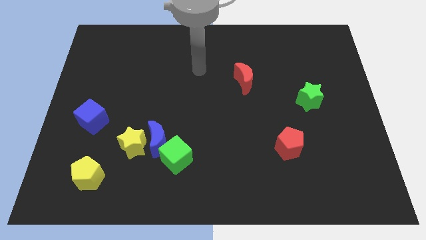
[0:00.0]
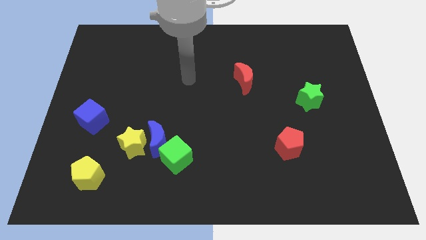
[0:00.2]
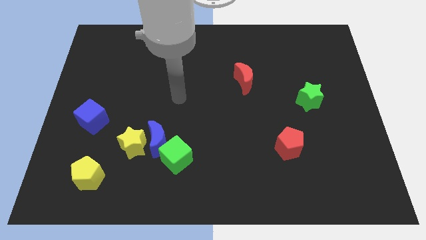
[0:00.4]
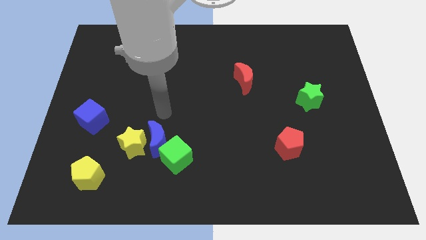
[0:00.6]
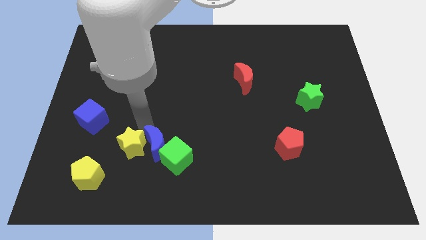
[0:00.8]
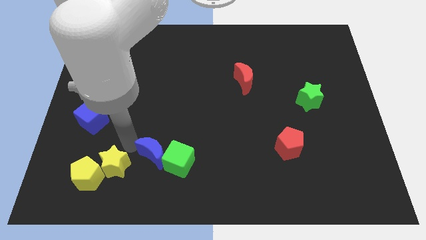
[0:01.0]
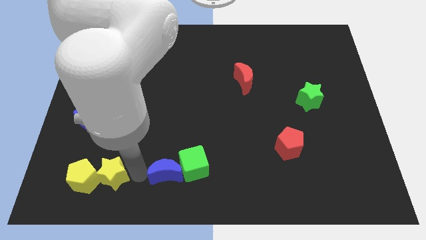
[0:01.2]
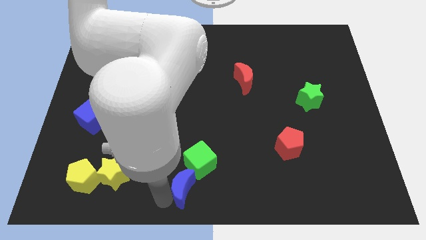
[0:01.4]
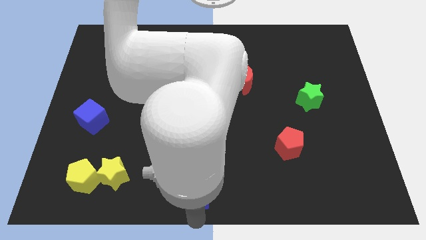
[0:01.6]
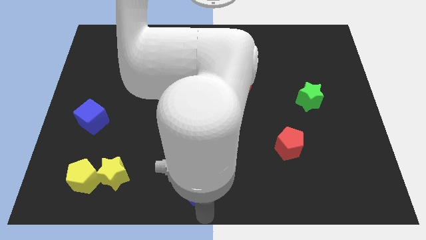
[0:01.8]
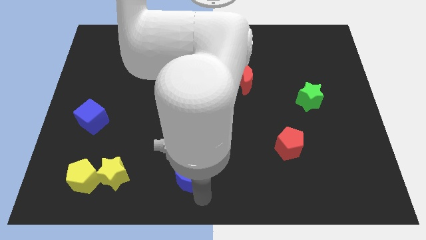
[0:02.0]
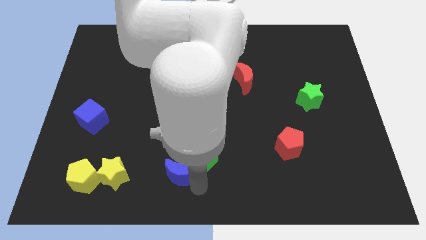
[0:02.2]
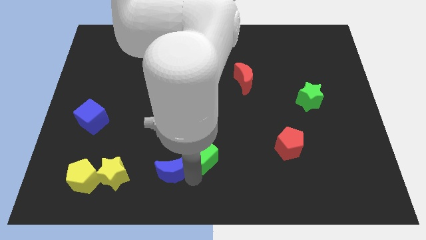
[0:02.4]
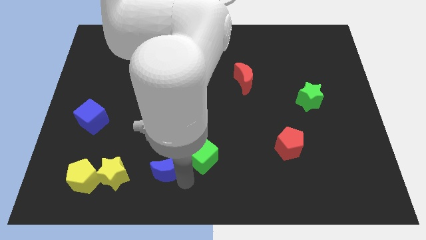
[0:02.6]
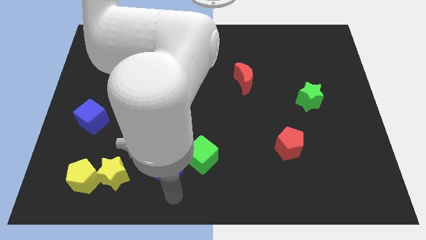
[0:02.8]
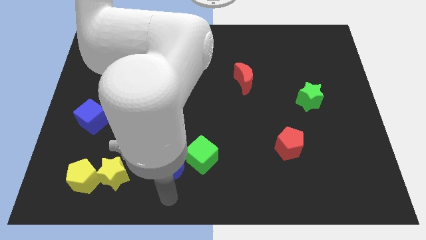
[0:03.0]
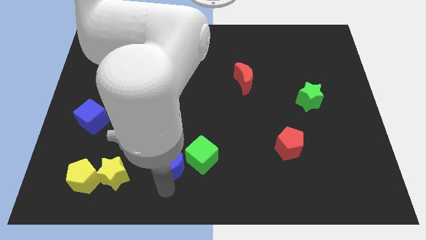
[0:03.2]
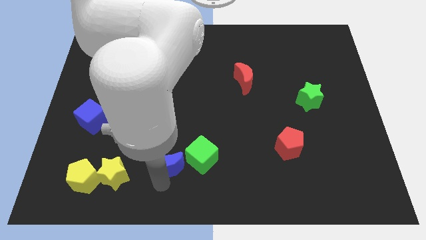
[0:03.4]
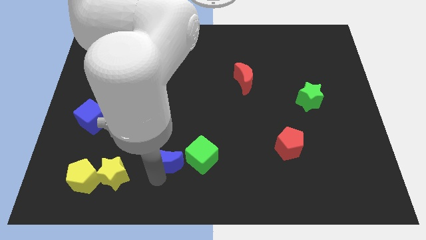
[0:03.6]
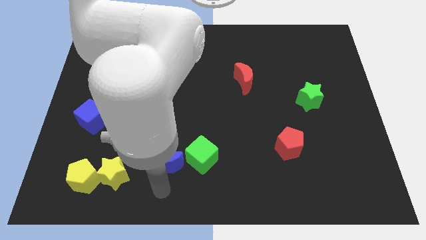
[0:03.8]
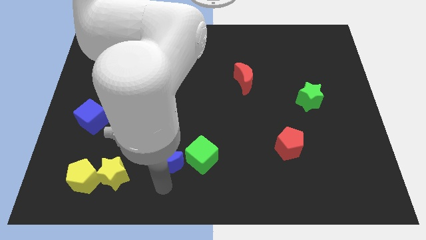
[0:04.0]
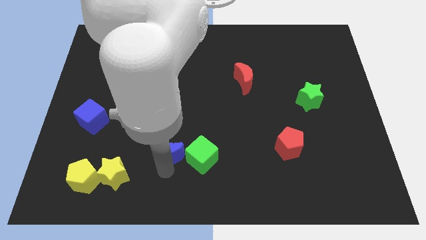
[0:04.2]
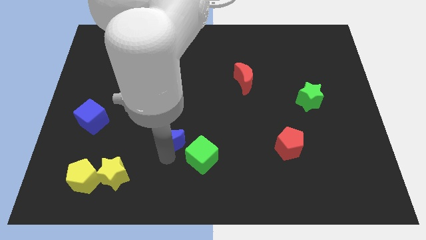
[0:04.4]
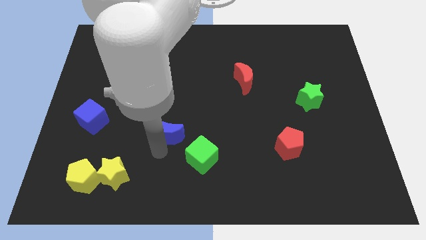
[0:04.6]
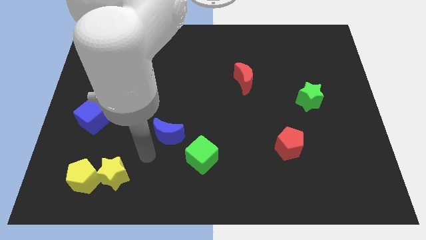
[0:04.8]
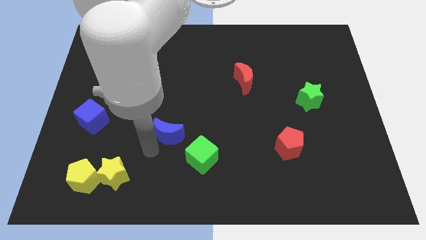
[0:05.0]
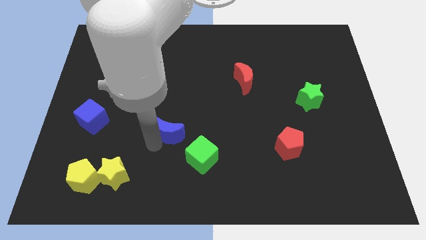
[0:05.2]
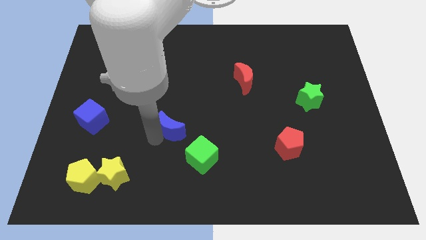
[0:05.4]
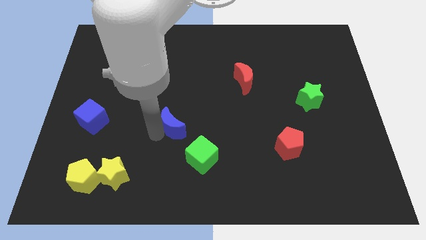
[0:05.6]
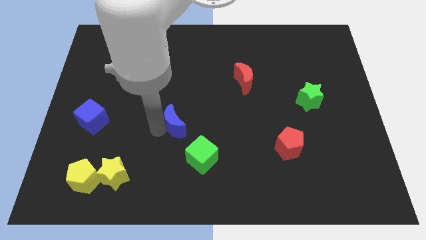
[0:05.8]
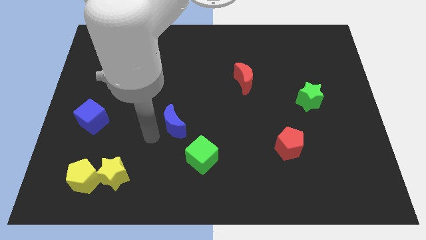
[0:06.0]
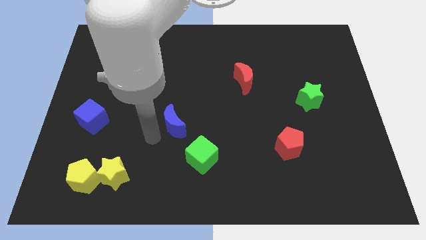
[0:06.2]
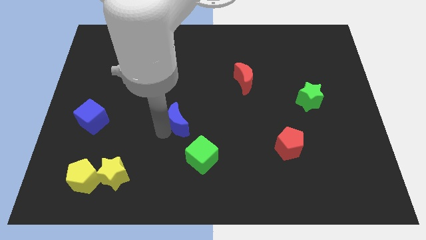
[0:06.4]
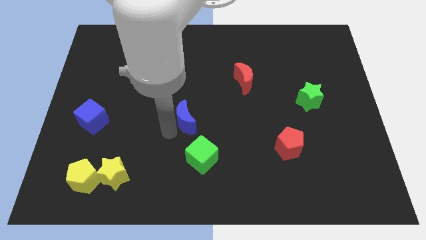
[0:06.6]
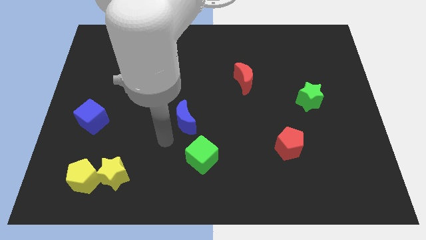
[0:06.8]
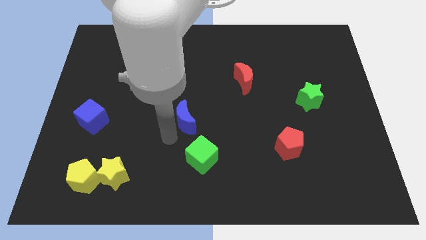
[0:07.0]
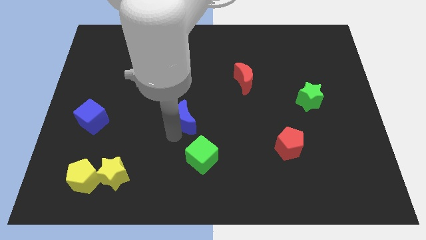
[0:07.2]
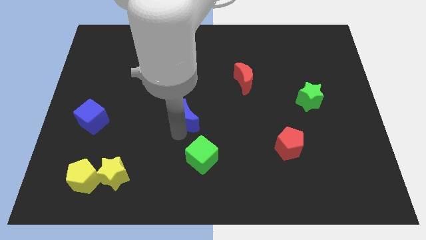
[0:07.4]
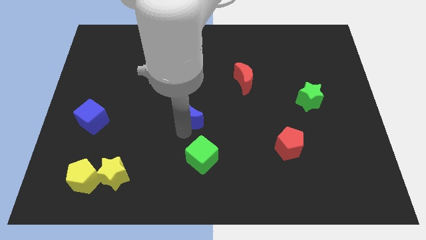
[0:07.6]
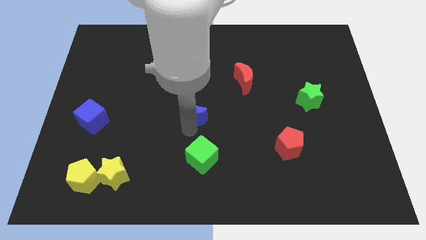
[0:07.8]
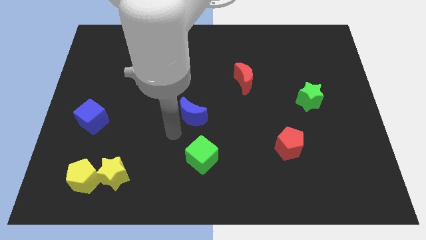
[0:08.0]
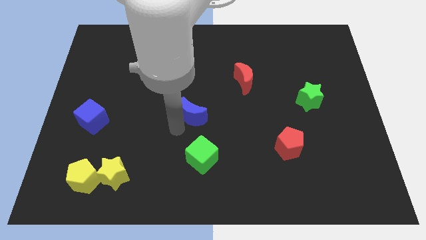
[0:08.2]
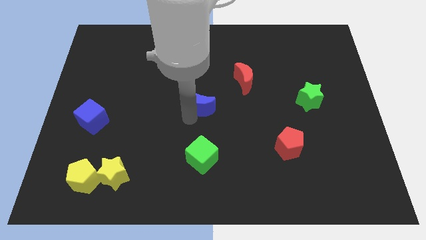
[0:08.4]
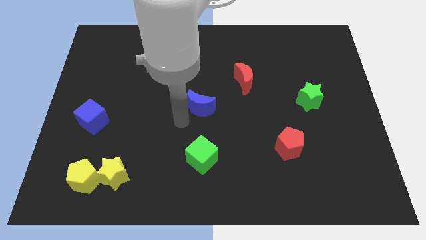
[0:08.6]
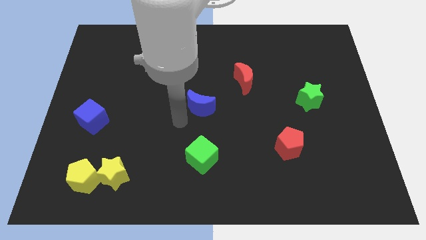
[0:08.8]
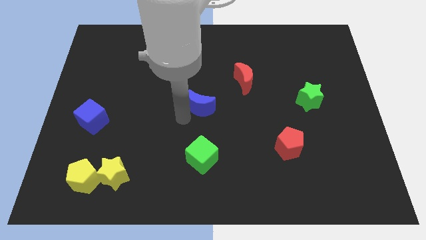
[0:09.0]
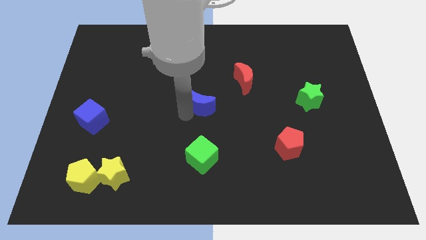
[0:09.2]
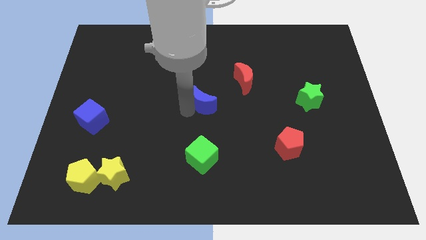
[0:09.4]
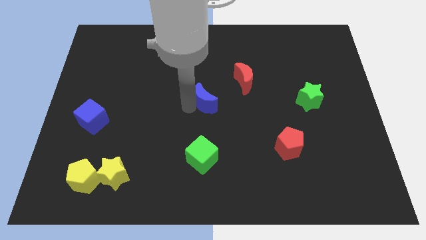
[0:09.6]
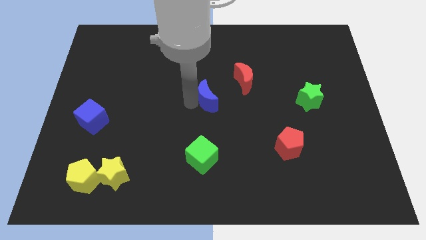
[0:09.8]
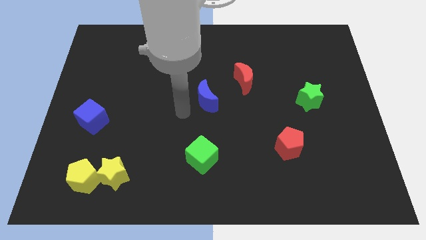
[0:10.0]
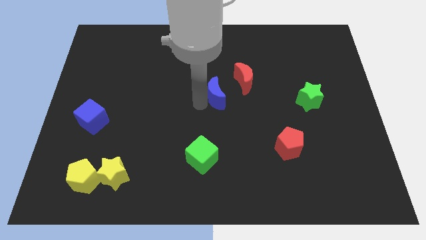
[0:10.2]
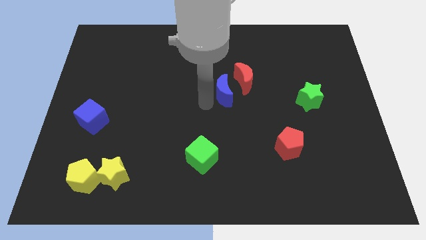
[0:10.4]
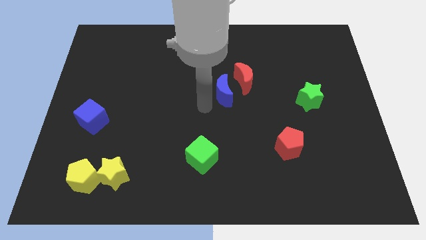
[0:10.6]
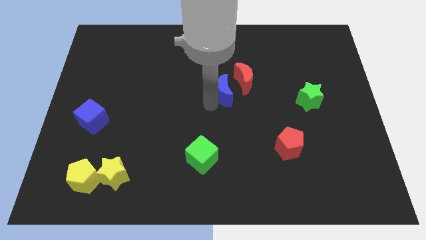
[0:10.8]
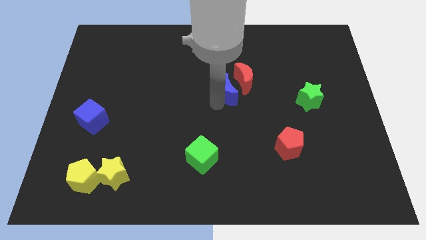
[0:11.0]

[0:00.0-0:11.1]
push the blue moon close to the red moon

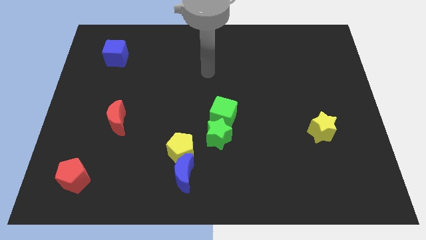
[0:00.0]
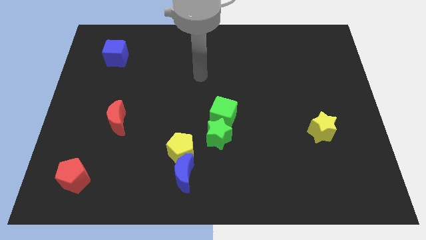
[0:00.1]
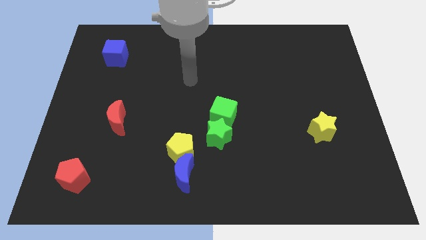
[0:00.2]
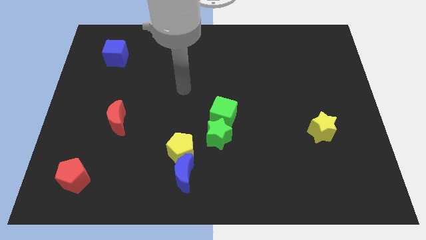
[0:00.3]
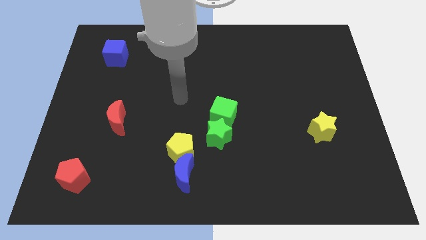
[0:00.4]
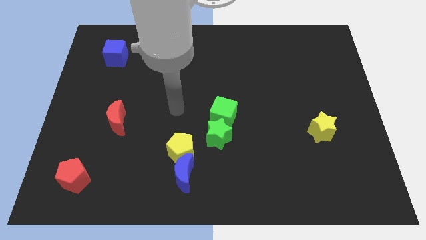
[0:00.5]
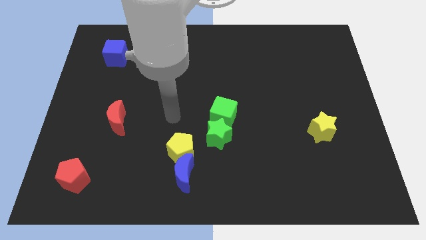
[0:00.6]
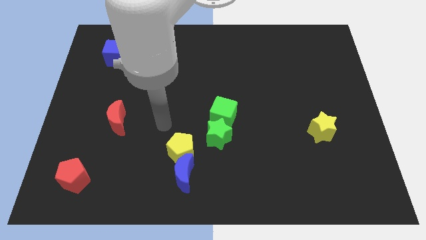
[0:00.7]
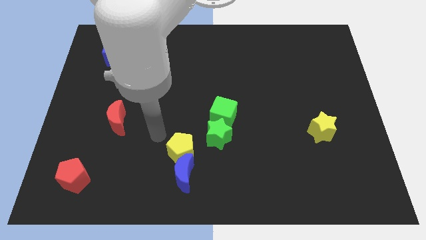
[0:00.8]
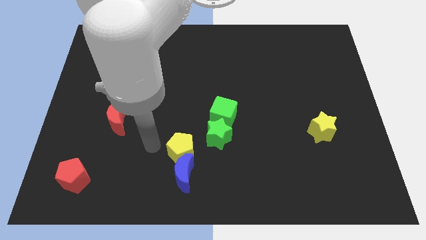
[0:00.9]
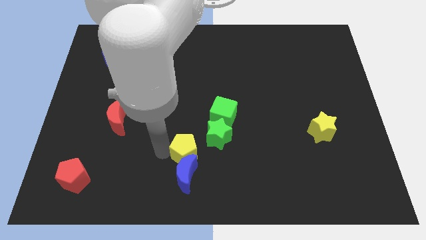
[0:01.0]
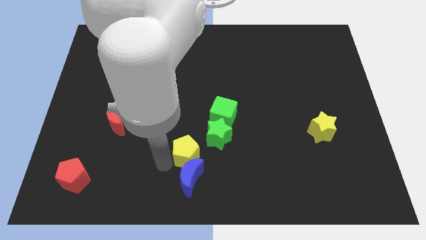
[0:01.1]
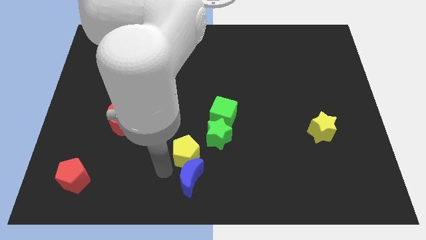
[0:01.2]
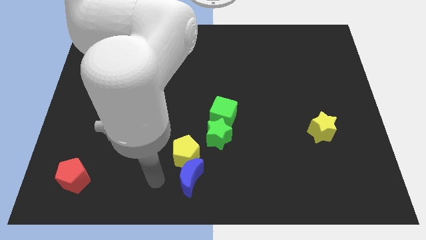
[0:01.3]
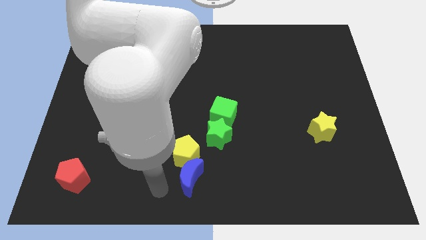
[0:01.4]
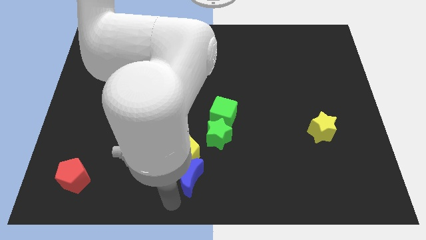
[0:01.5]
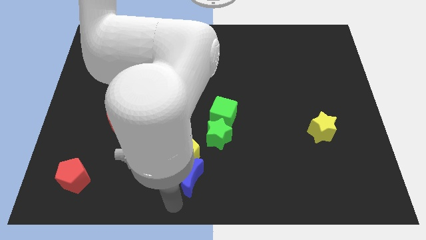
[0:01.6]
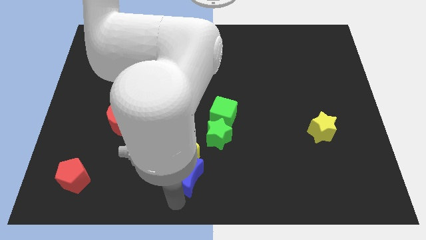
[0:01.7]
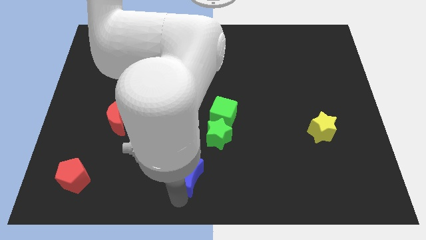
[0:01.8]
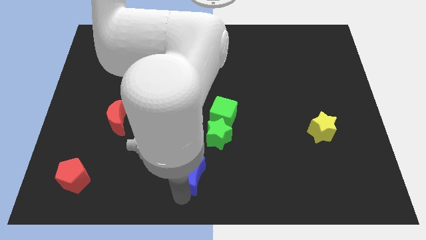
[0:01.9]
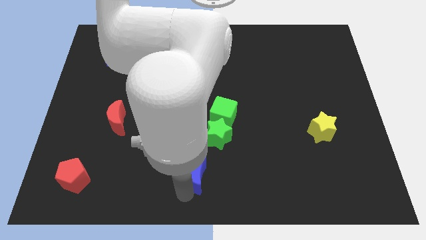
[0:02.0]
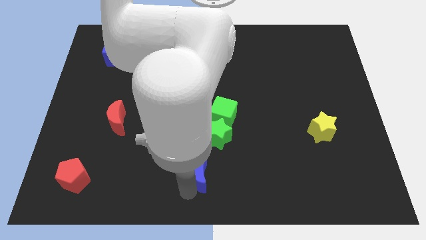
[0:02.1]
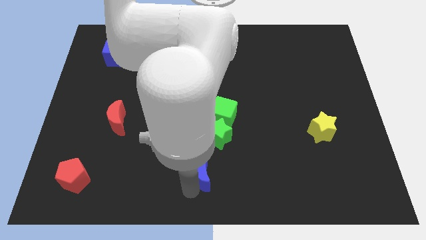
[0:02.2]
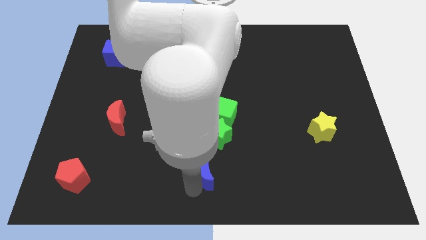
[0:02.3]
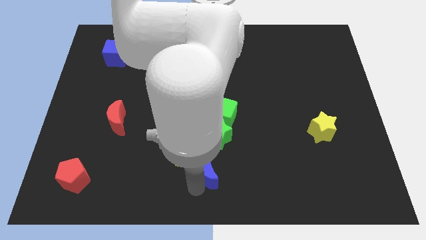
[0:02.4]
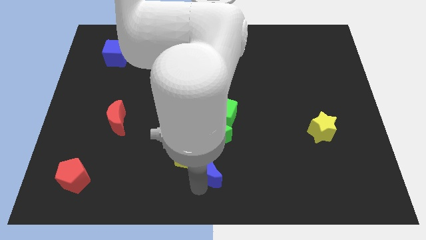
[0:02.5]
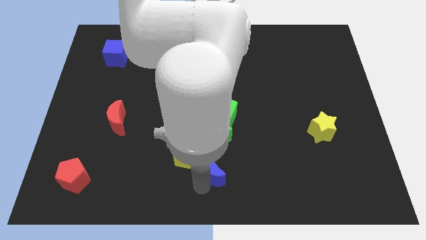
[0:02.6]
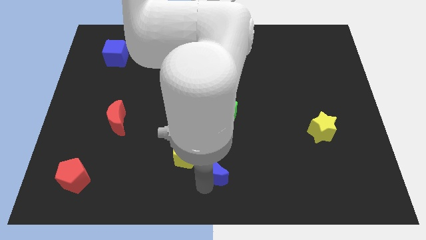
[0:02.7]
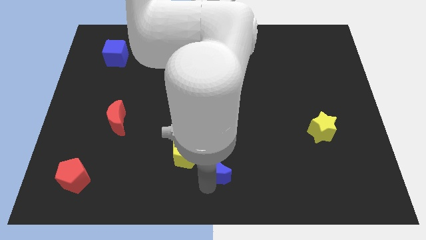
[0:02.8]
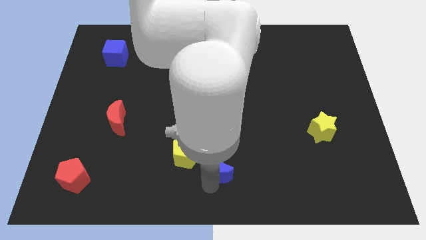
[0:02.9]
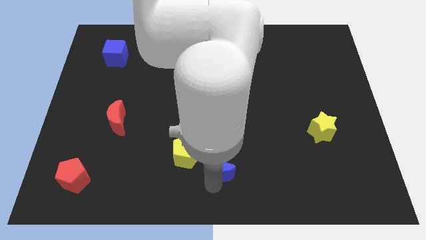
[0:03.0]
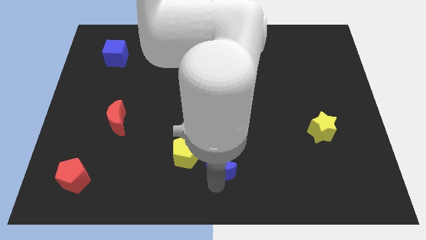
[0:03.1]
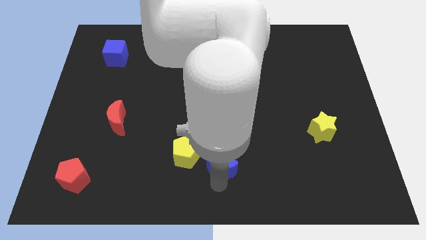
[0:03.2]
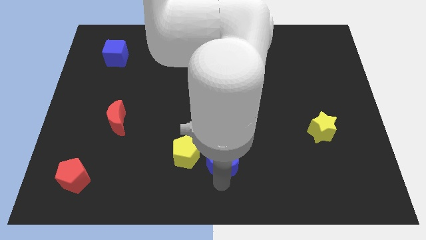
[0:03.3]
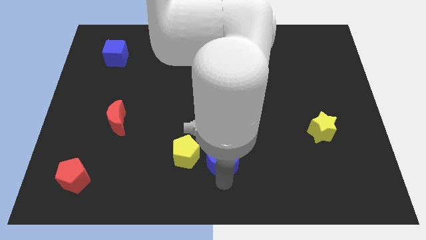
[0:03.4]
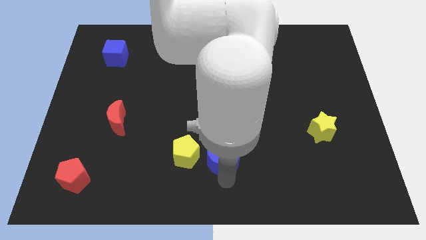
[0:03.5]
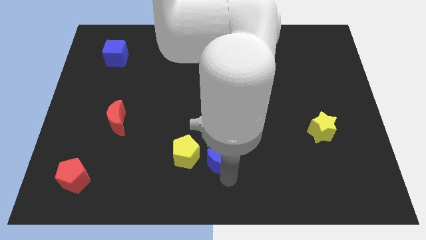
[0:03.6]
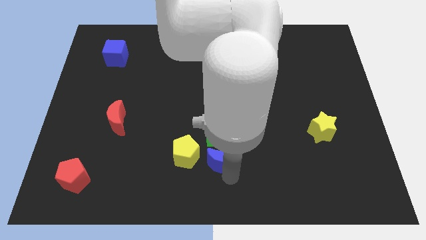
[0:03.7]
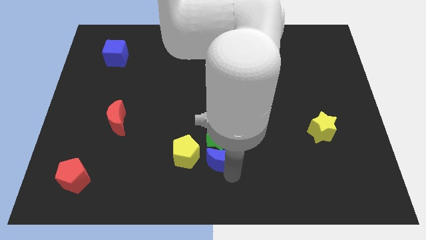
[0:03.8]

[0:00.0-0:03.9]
push the blue moon close to the green star
